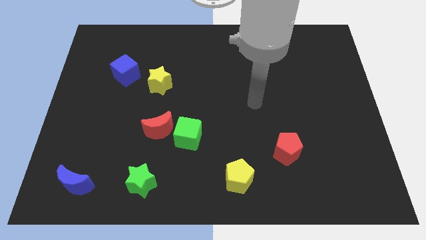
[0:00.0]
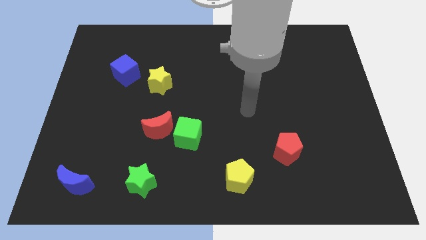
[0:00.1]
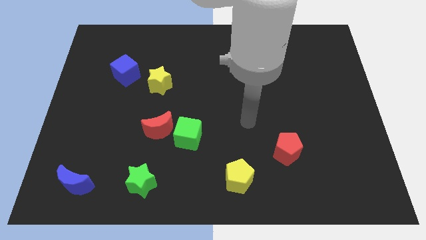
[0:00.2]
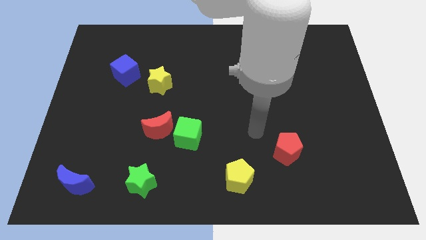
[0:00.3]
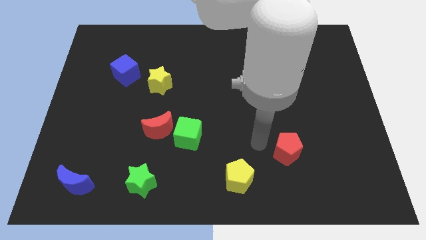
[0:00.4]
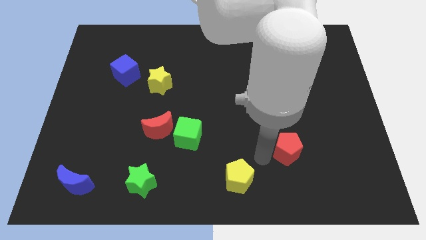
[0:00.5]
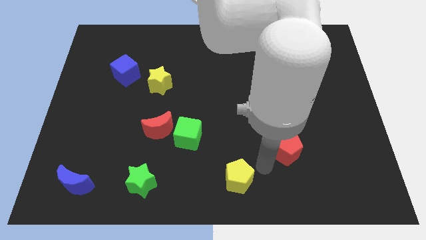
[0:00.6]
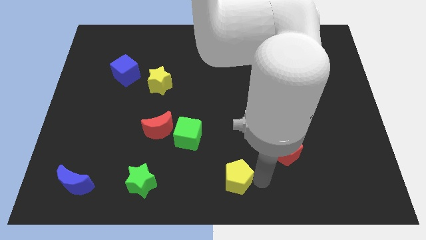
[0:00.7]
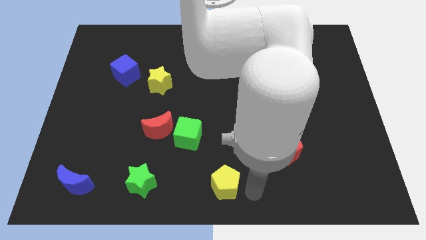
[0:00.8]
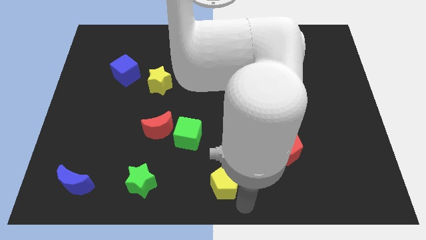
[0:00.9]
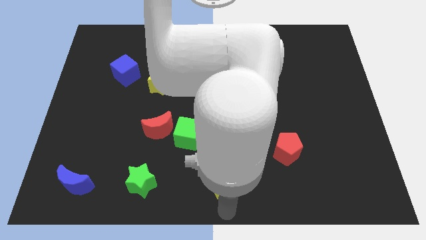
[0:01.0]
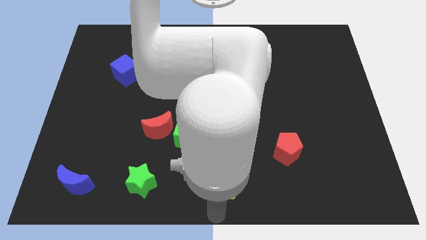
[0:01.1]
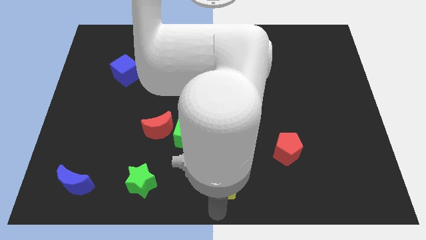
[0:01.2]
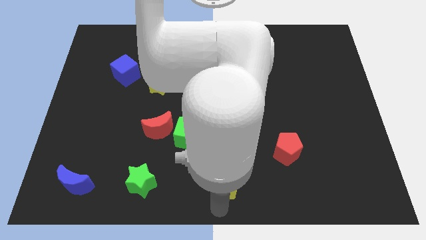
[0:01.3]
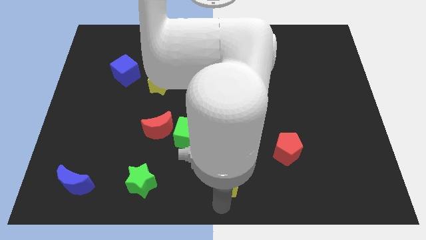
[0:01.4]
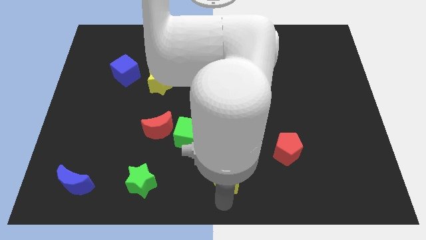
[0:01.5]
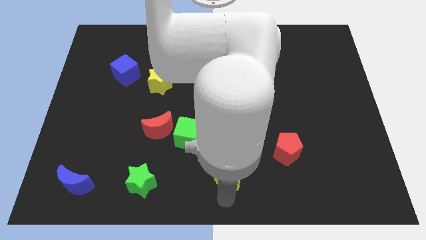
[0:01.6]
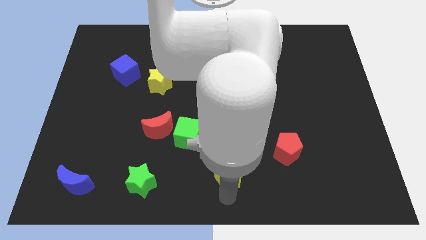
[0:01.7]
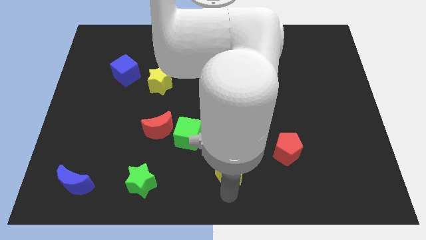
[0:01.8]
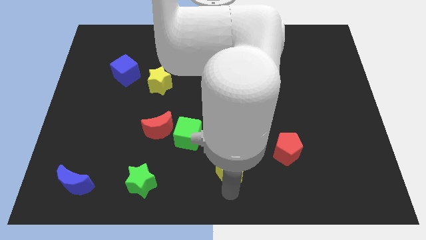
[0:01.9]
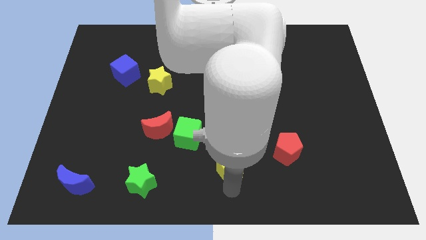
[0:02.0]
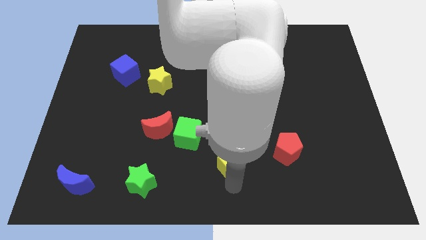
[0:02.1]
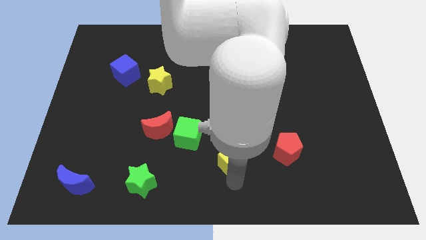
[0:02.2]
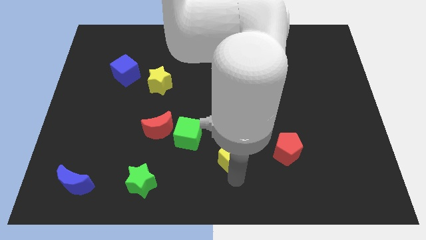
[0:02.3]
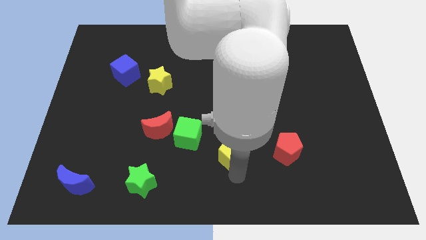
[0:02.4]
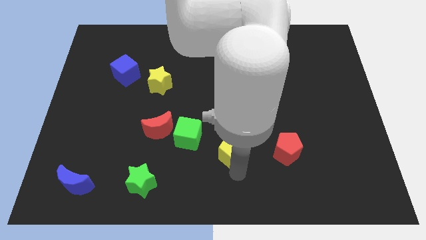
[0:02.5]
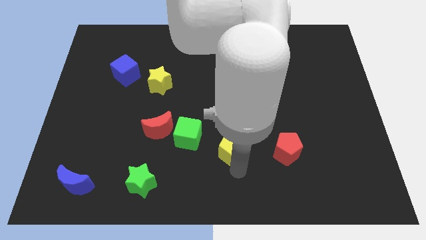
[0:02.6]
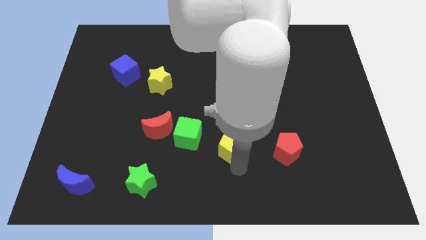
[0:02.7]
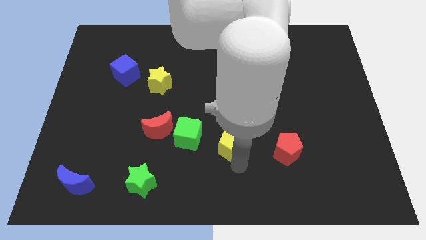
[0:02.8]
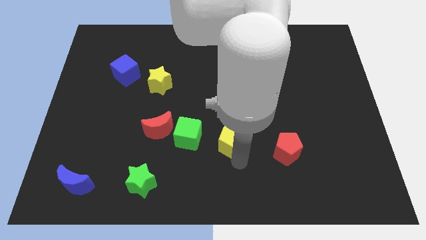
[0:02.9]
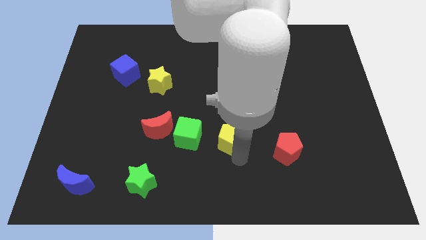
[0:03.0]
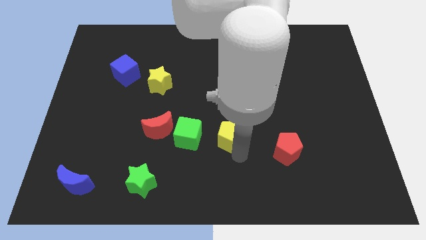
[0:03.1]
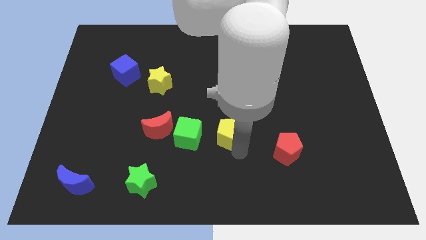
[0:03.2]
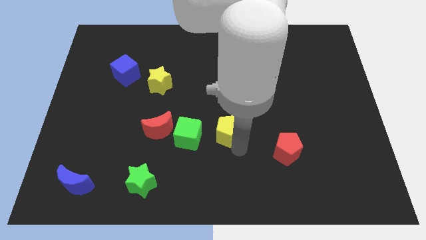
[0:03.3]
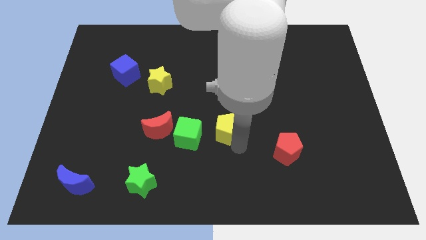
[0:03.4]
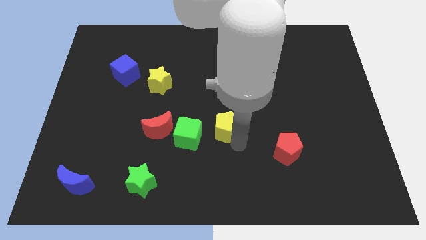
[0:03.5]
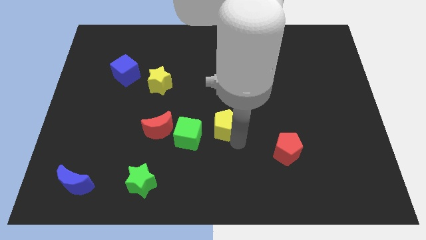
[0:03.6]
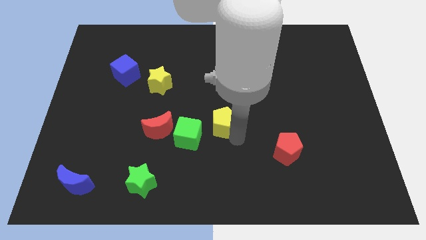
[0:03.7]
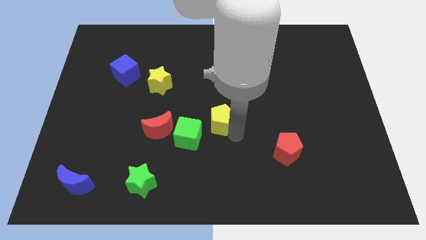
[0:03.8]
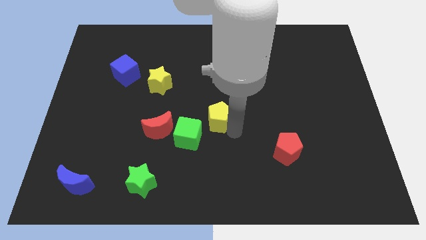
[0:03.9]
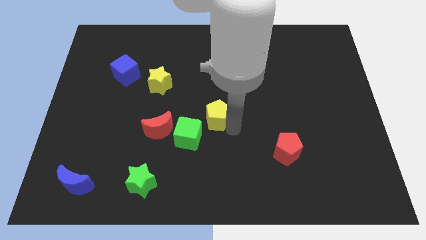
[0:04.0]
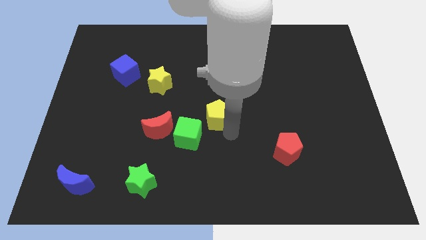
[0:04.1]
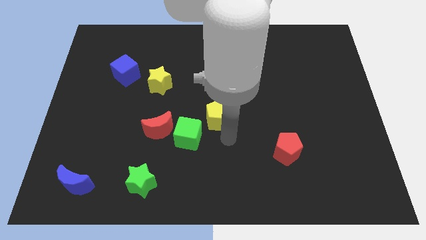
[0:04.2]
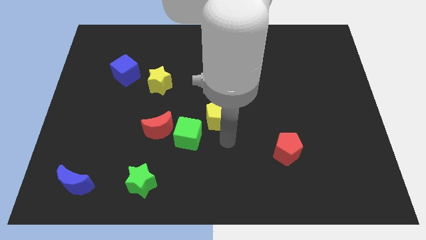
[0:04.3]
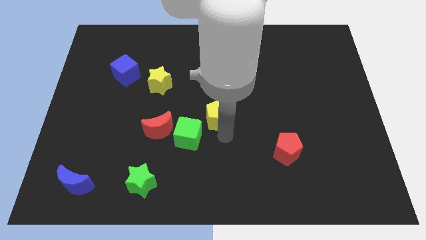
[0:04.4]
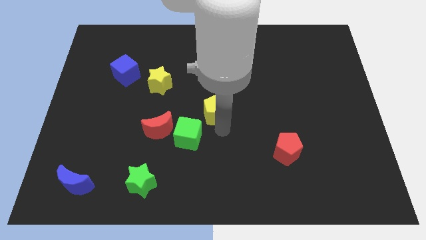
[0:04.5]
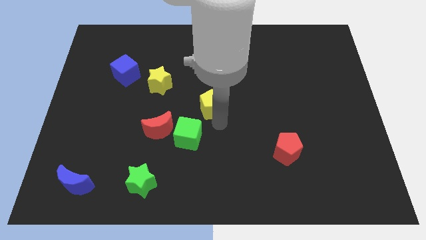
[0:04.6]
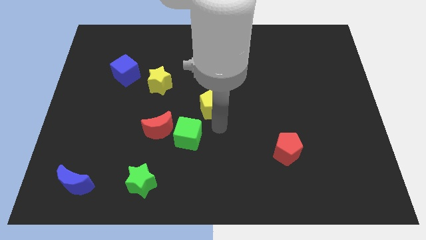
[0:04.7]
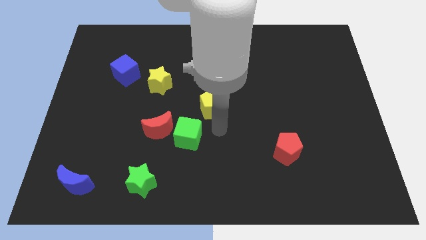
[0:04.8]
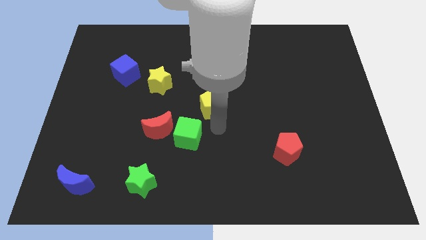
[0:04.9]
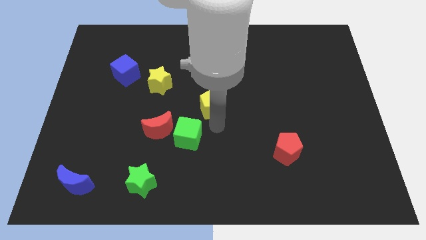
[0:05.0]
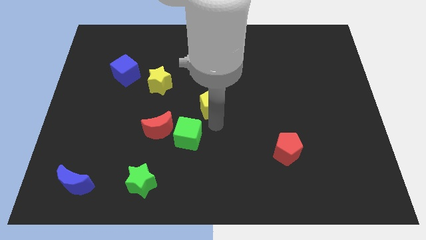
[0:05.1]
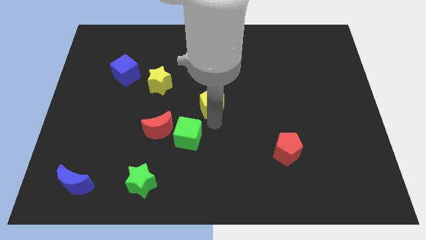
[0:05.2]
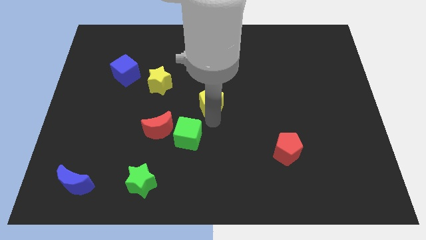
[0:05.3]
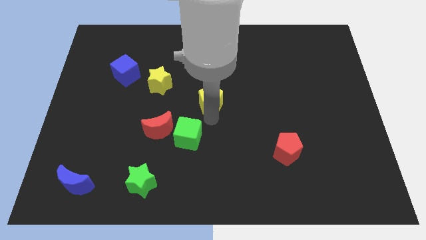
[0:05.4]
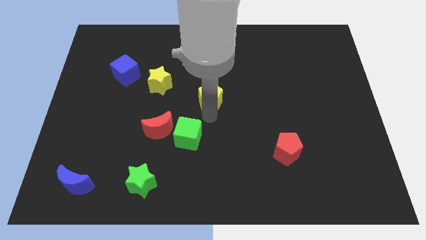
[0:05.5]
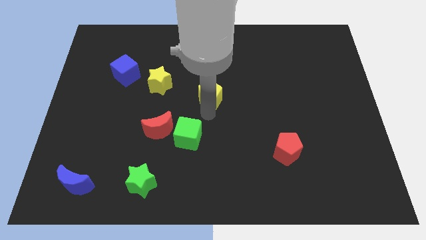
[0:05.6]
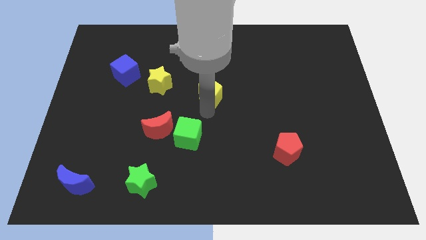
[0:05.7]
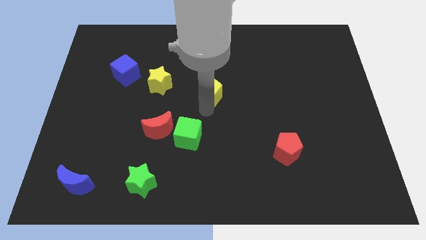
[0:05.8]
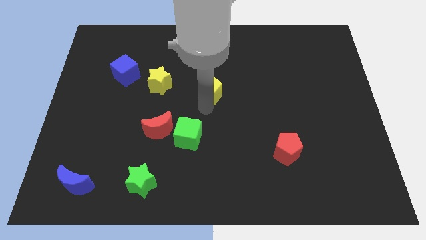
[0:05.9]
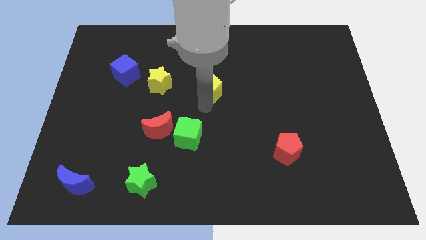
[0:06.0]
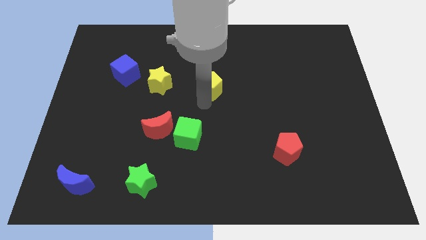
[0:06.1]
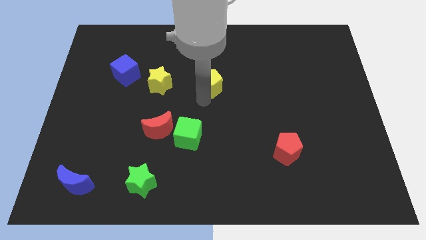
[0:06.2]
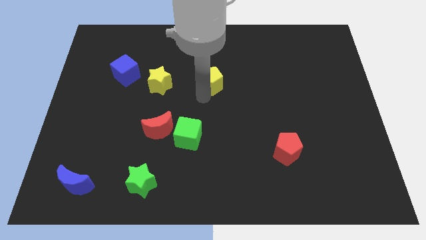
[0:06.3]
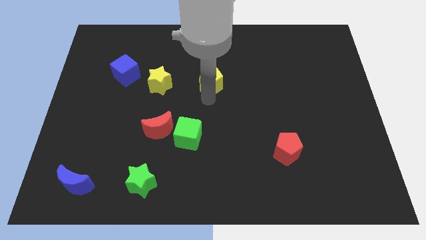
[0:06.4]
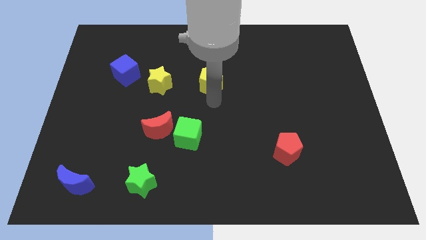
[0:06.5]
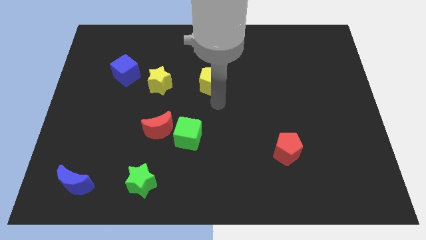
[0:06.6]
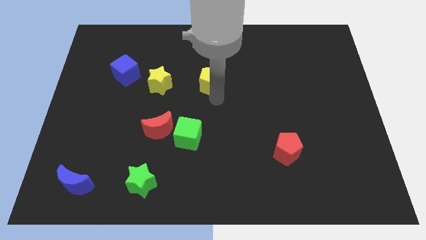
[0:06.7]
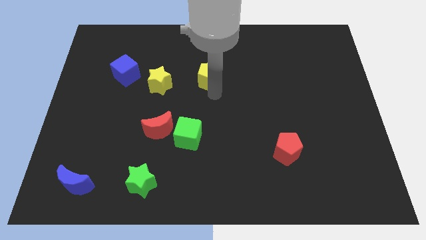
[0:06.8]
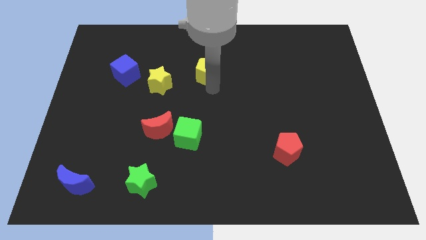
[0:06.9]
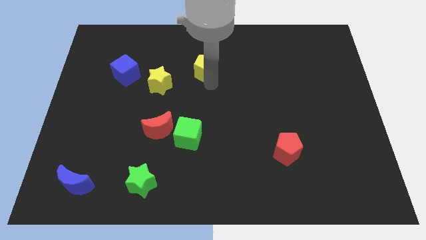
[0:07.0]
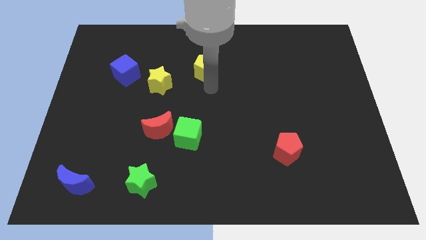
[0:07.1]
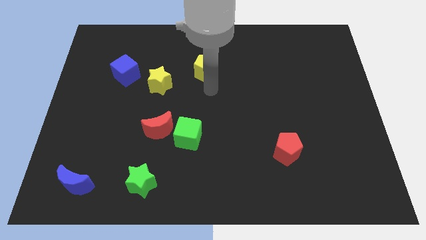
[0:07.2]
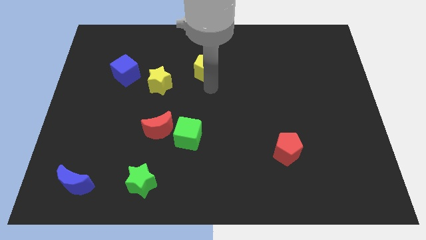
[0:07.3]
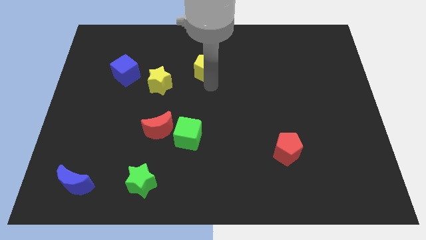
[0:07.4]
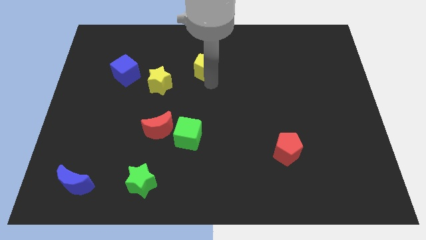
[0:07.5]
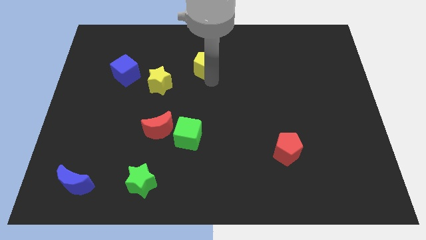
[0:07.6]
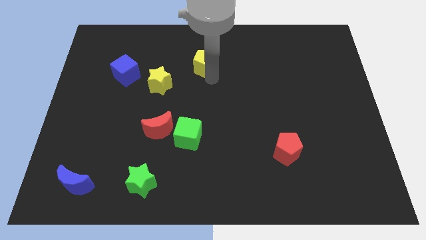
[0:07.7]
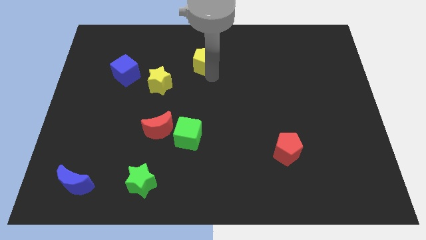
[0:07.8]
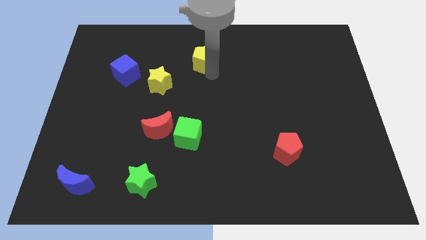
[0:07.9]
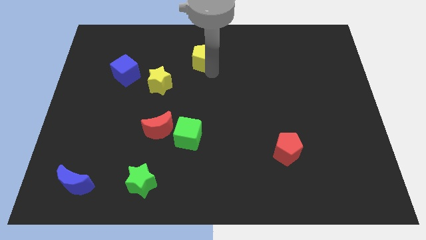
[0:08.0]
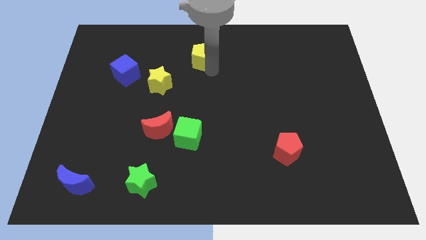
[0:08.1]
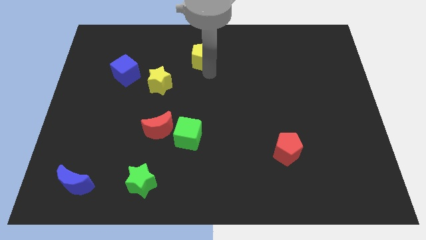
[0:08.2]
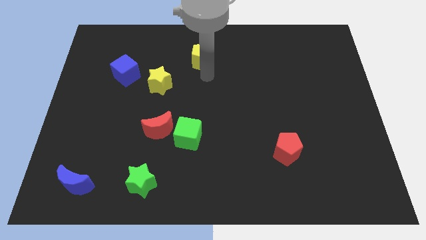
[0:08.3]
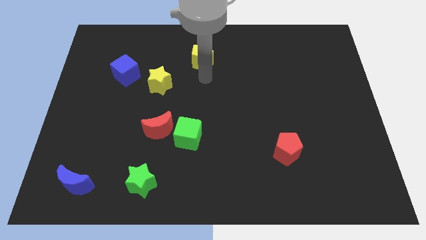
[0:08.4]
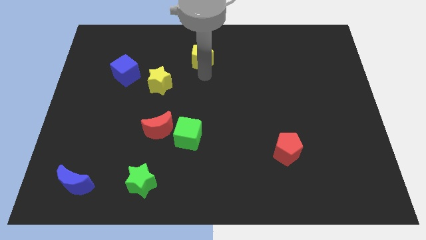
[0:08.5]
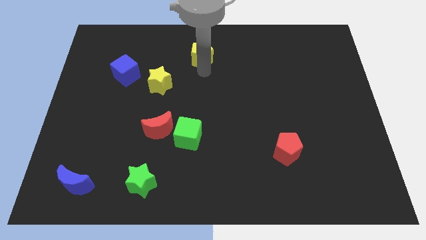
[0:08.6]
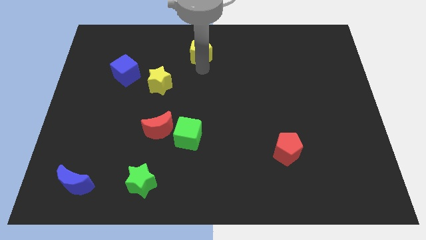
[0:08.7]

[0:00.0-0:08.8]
push the yellow pentagon to the top
